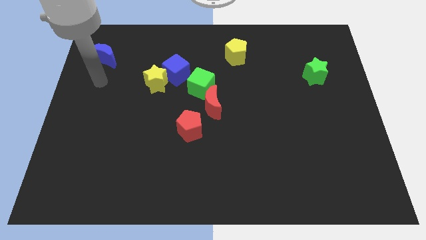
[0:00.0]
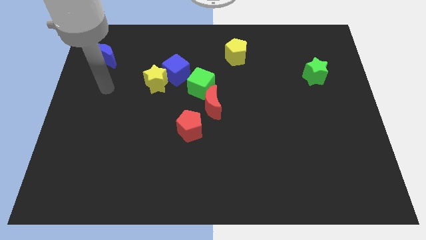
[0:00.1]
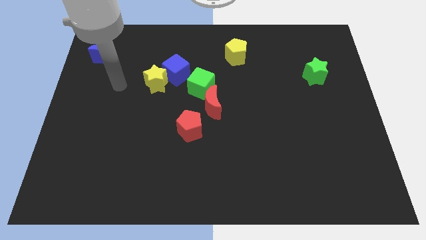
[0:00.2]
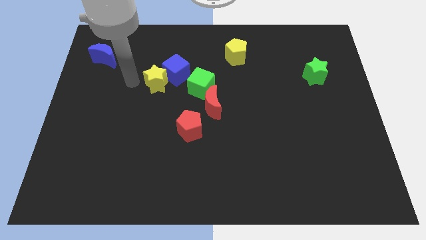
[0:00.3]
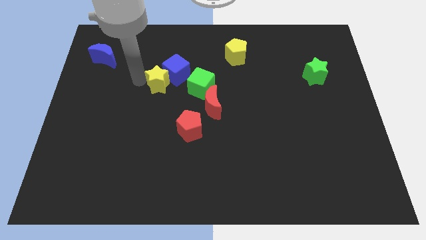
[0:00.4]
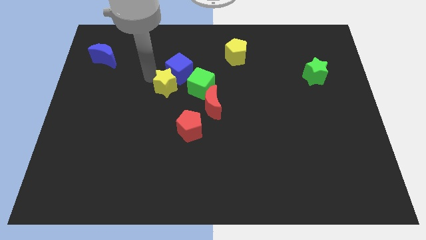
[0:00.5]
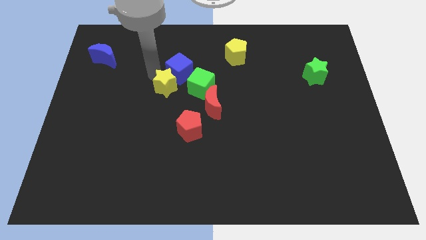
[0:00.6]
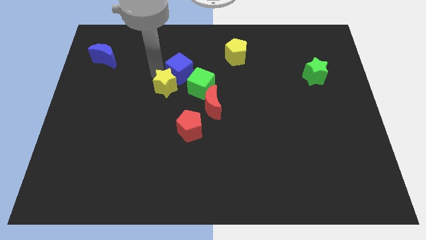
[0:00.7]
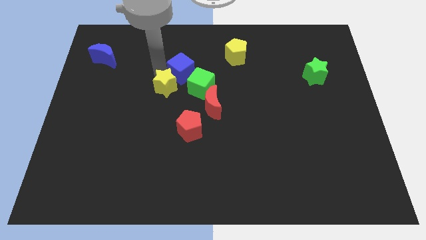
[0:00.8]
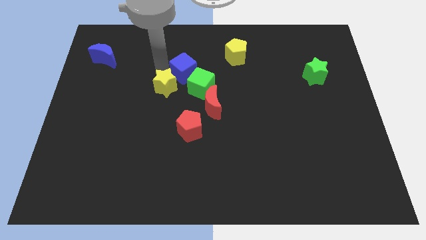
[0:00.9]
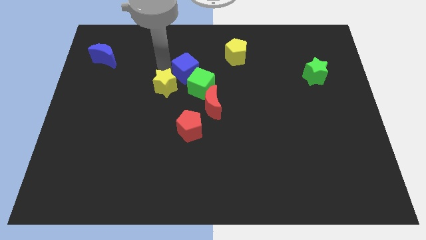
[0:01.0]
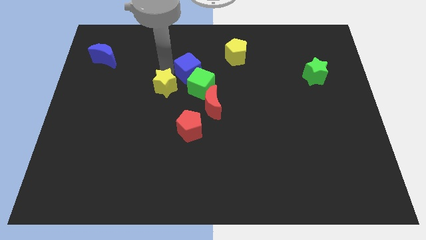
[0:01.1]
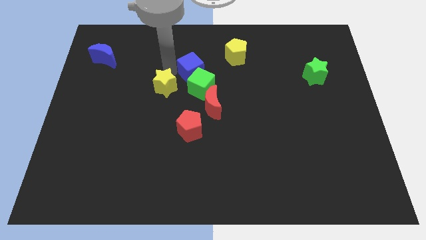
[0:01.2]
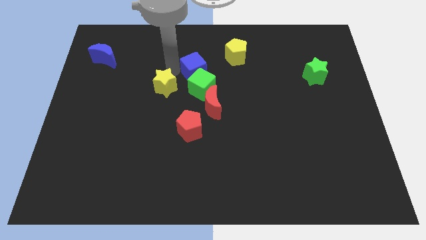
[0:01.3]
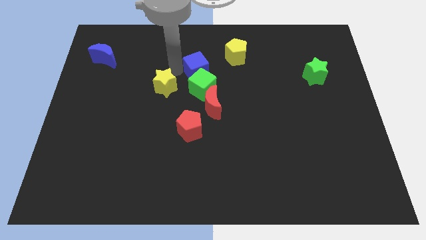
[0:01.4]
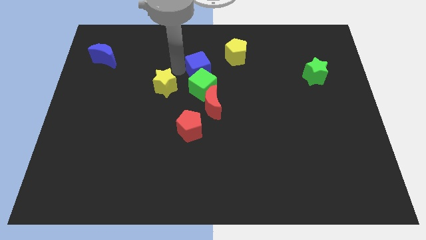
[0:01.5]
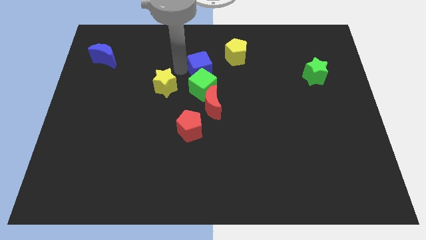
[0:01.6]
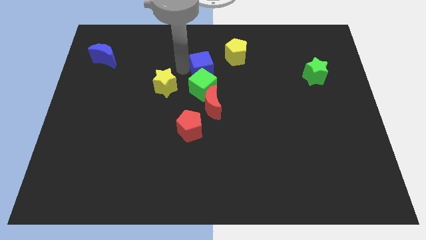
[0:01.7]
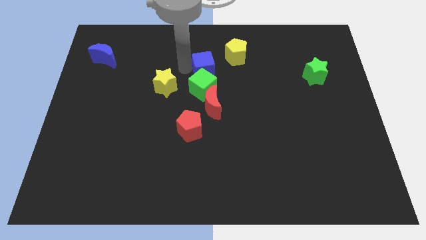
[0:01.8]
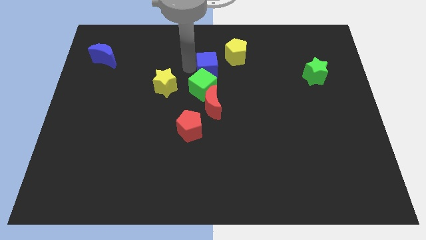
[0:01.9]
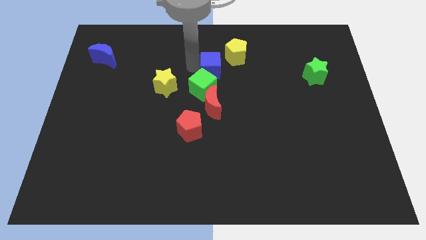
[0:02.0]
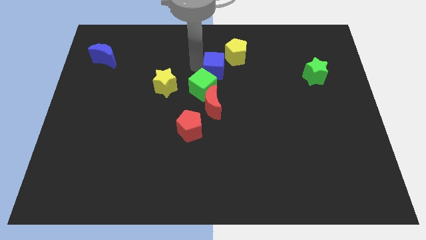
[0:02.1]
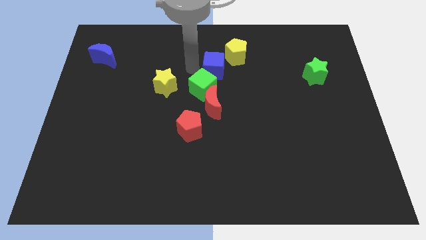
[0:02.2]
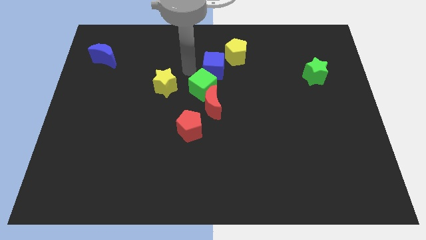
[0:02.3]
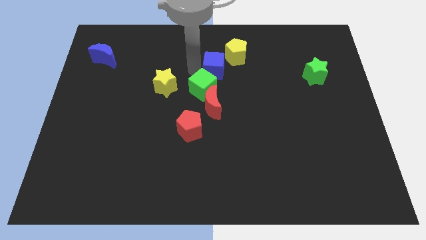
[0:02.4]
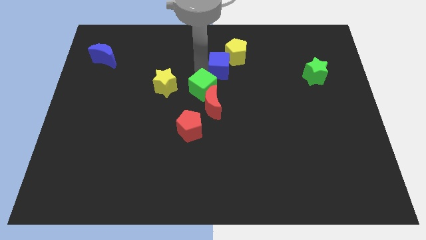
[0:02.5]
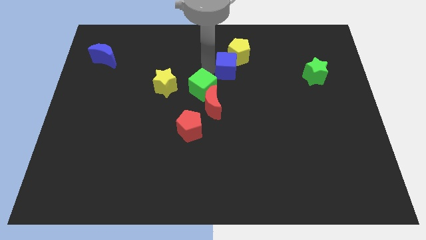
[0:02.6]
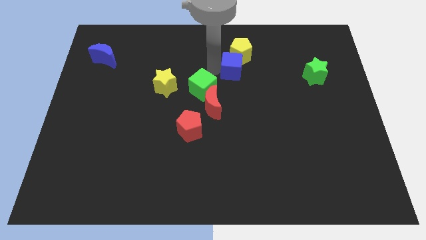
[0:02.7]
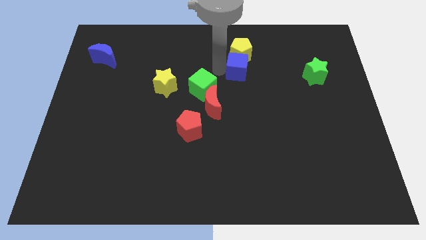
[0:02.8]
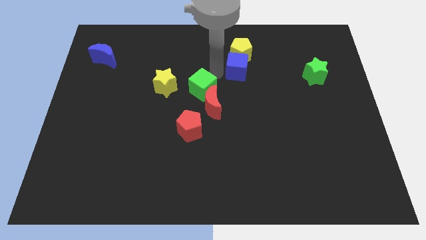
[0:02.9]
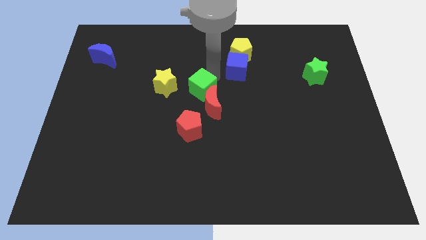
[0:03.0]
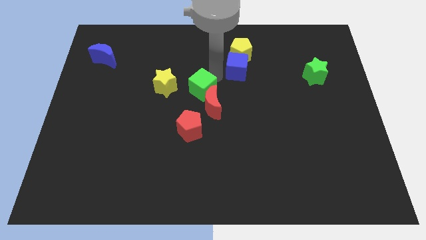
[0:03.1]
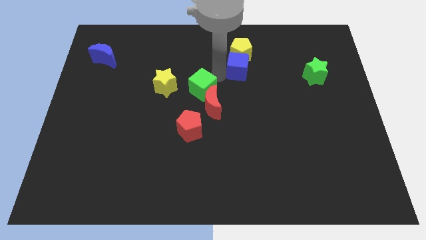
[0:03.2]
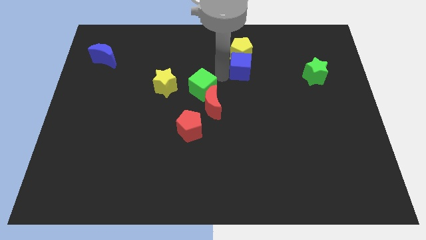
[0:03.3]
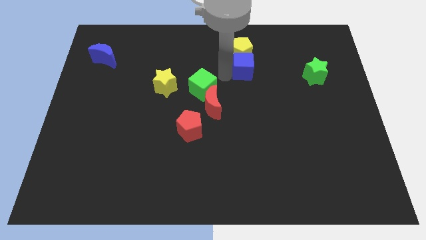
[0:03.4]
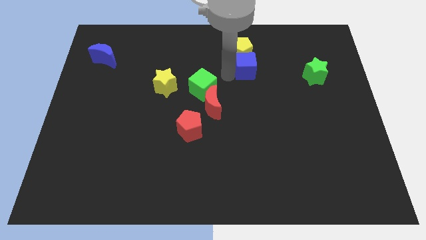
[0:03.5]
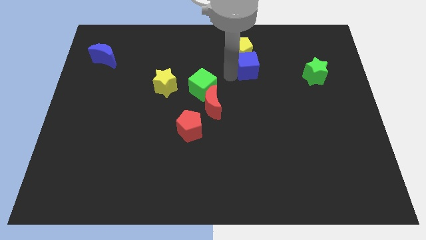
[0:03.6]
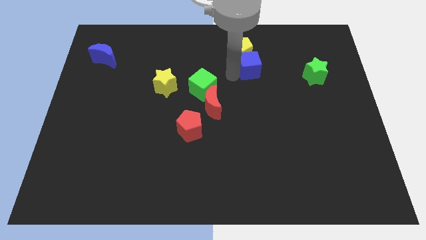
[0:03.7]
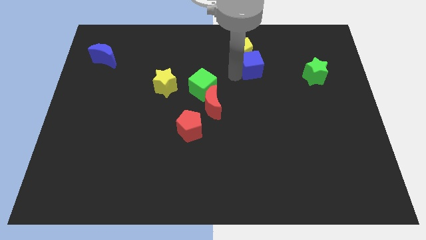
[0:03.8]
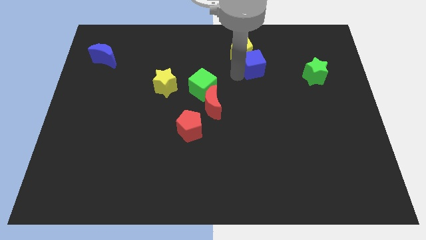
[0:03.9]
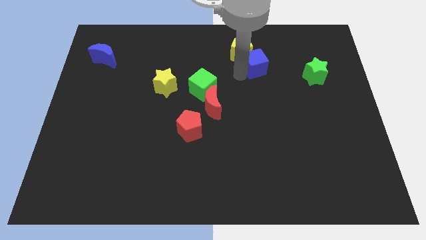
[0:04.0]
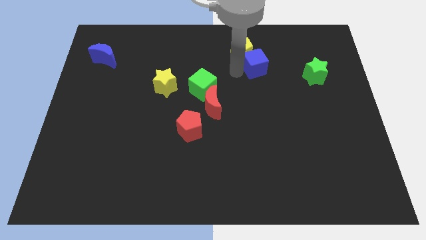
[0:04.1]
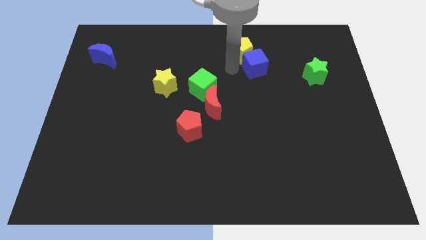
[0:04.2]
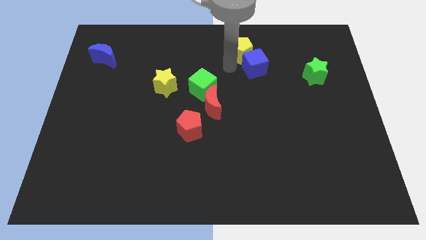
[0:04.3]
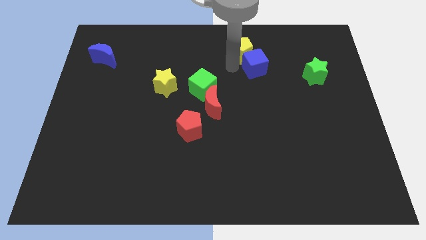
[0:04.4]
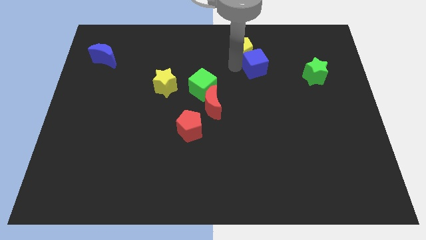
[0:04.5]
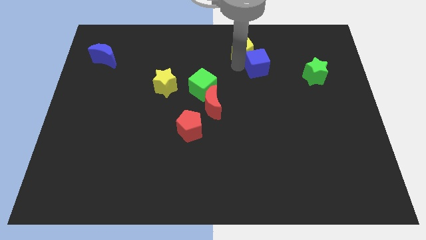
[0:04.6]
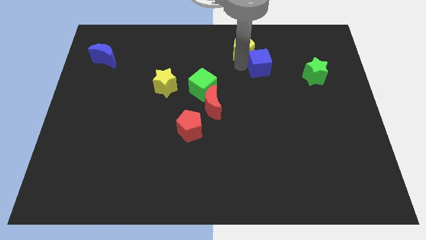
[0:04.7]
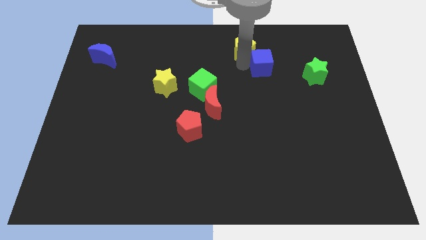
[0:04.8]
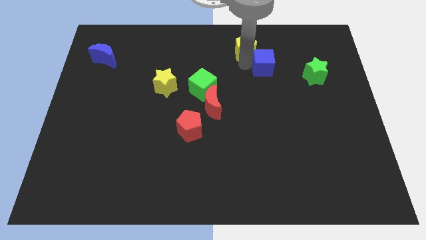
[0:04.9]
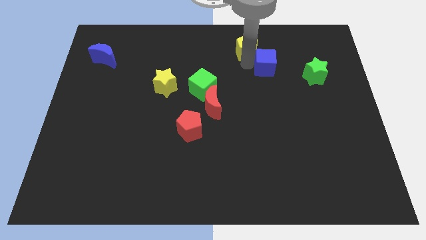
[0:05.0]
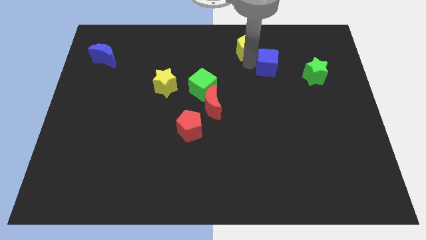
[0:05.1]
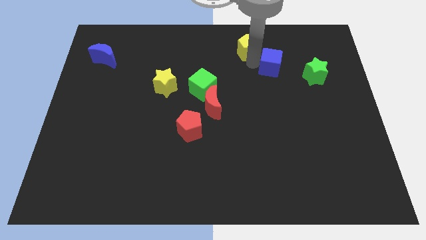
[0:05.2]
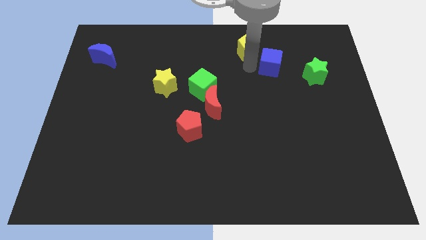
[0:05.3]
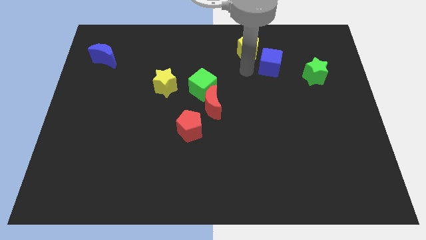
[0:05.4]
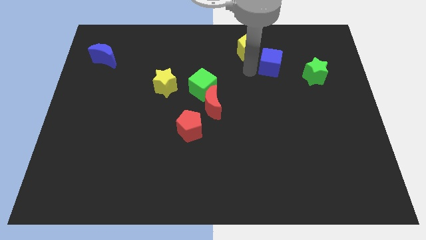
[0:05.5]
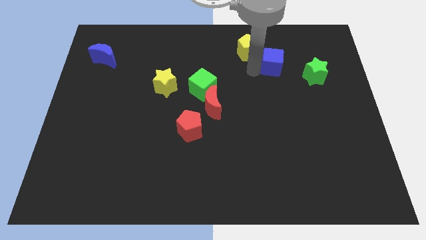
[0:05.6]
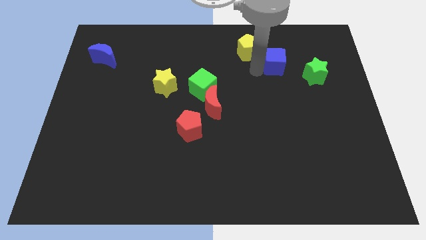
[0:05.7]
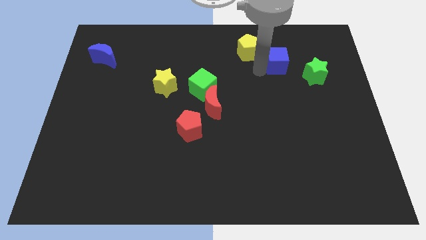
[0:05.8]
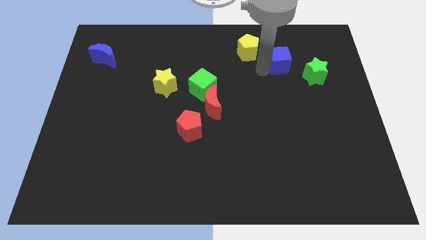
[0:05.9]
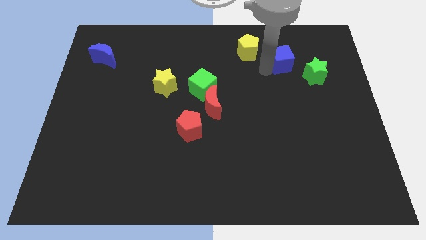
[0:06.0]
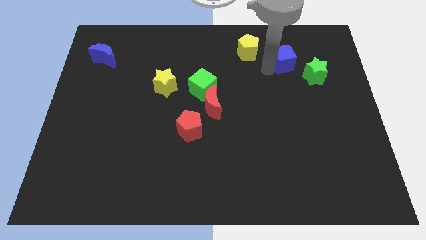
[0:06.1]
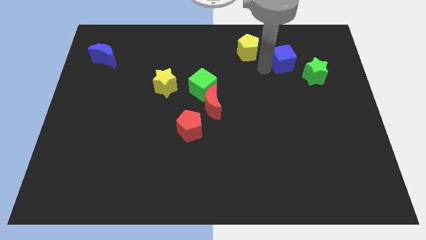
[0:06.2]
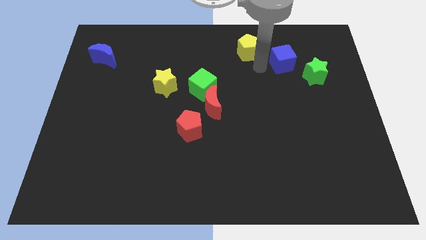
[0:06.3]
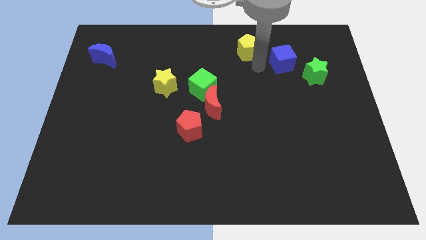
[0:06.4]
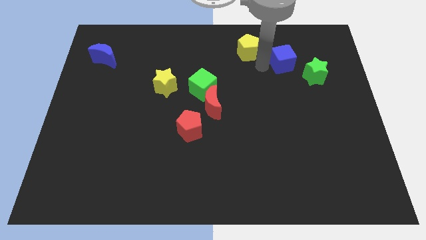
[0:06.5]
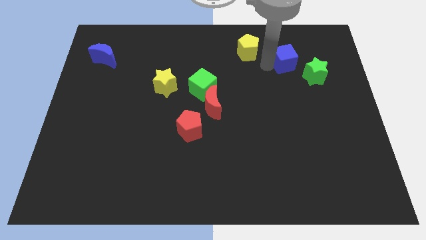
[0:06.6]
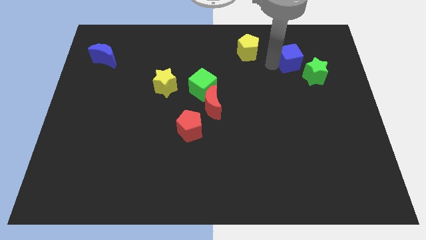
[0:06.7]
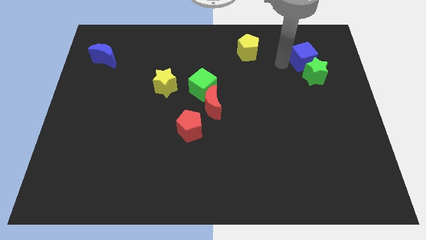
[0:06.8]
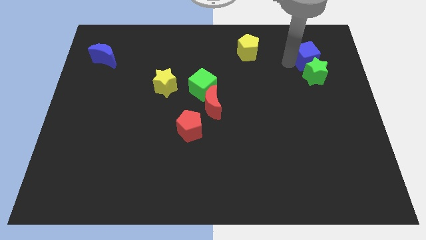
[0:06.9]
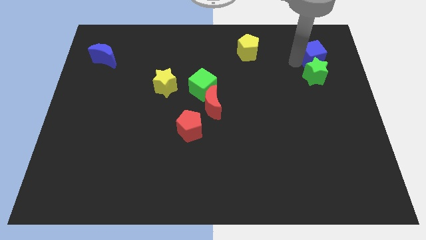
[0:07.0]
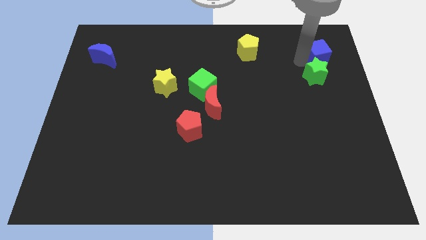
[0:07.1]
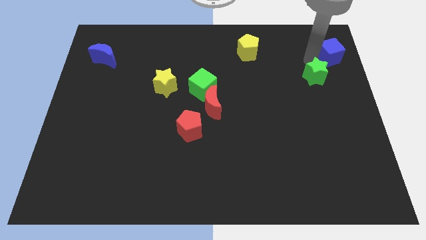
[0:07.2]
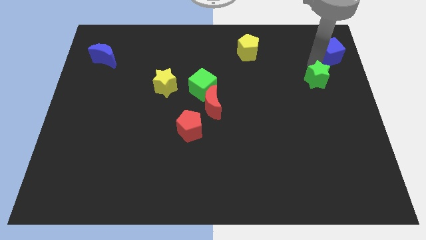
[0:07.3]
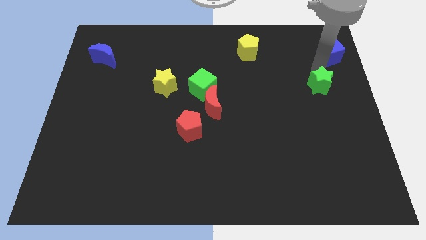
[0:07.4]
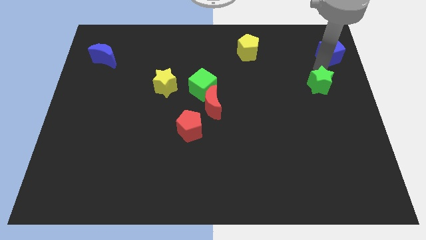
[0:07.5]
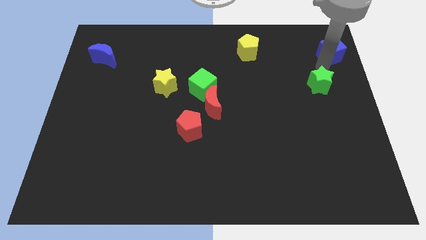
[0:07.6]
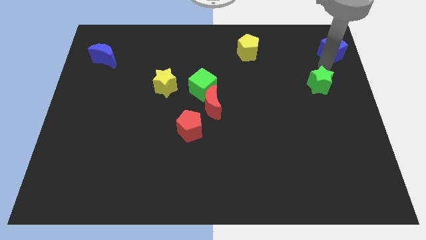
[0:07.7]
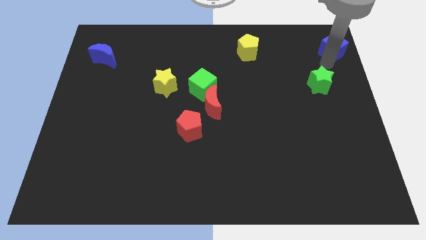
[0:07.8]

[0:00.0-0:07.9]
push the blue cube to the top right corner
